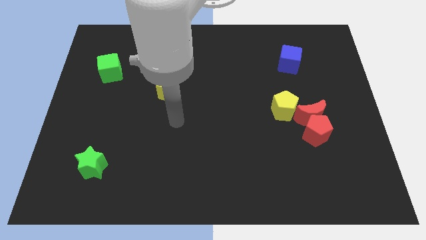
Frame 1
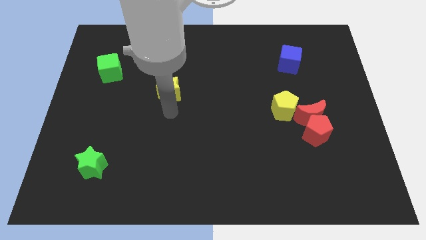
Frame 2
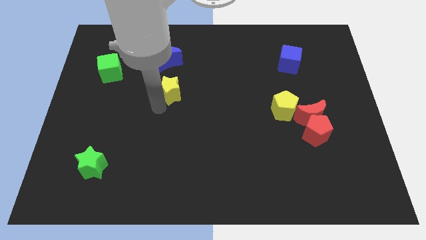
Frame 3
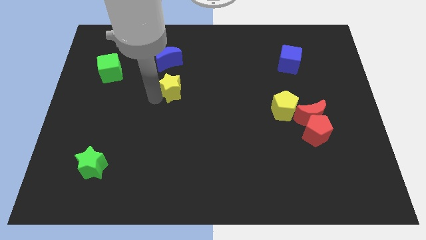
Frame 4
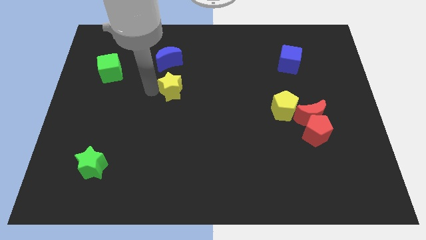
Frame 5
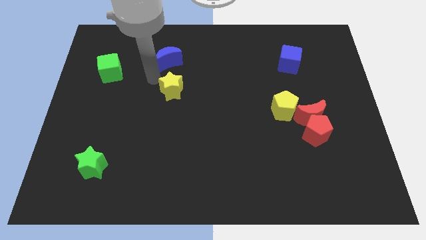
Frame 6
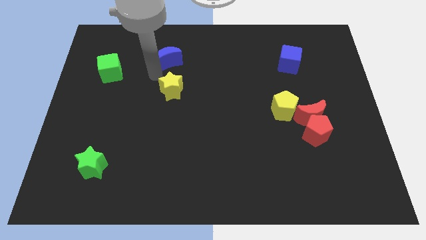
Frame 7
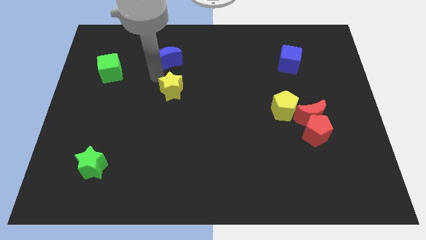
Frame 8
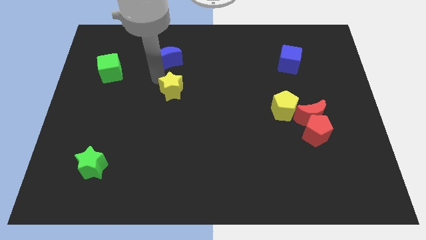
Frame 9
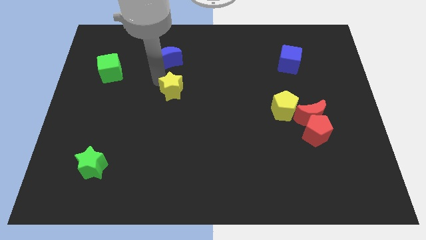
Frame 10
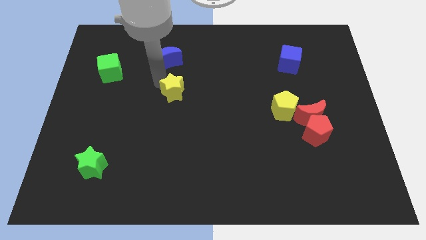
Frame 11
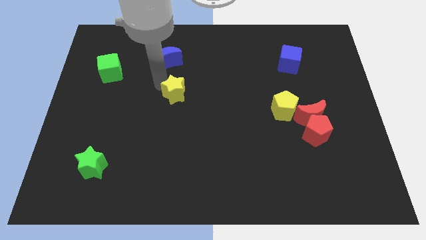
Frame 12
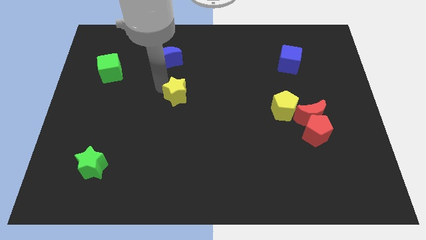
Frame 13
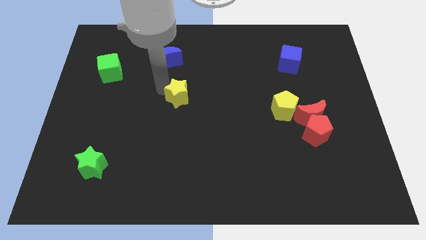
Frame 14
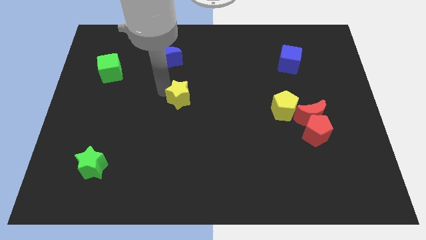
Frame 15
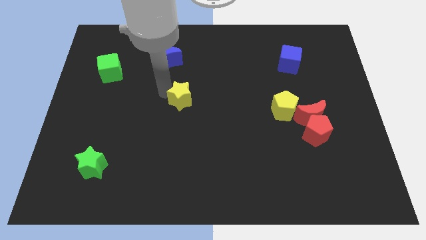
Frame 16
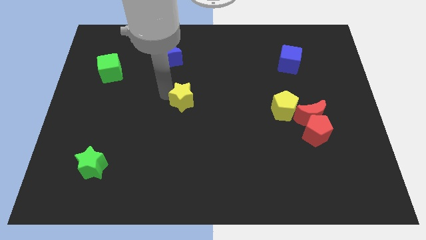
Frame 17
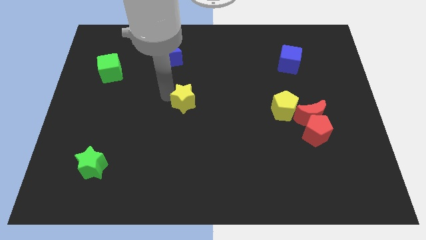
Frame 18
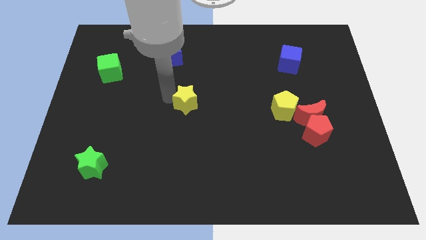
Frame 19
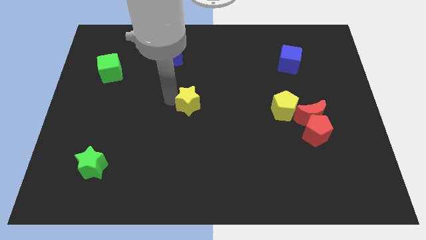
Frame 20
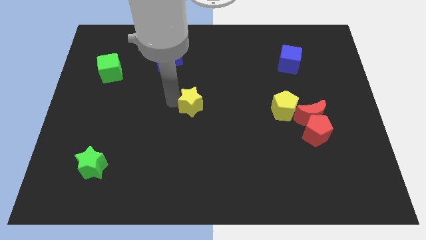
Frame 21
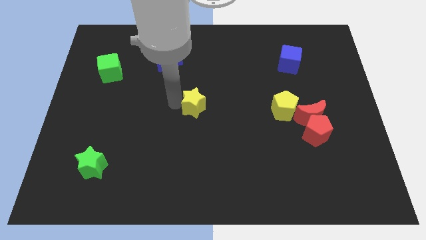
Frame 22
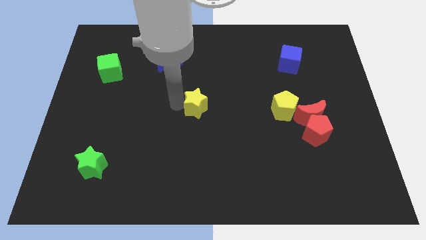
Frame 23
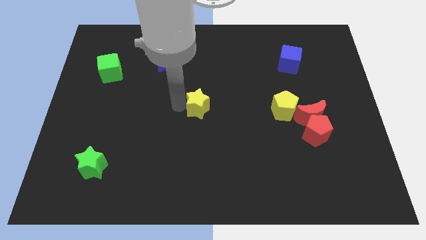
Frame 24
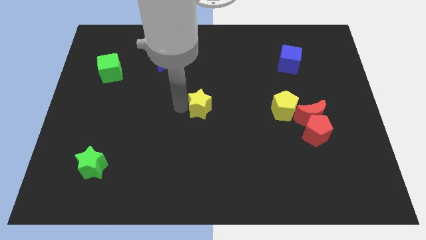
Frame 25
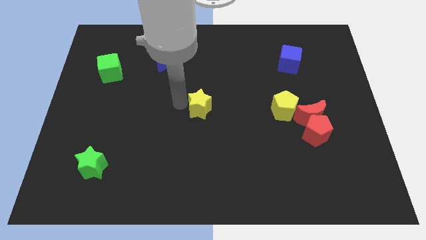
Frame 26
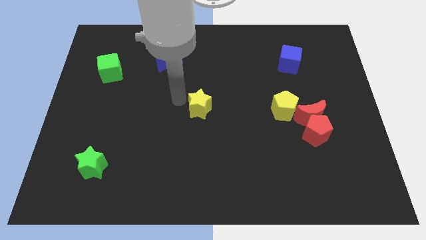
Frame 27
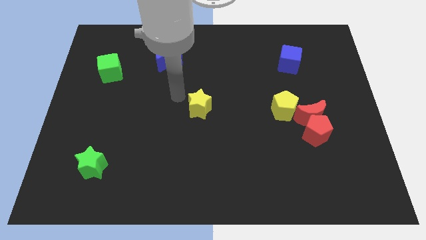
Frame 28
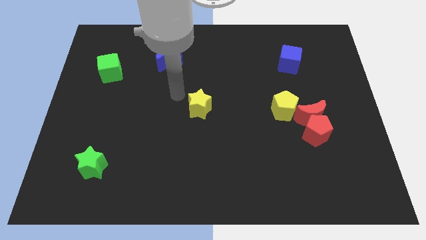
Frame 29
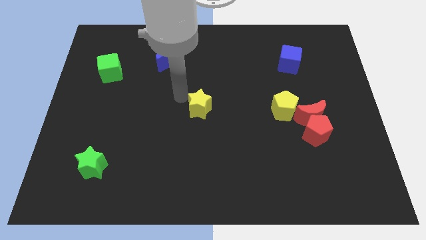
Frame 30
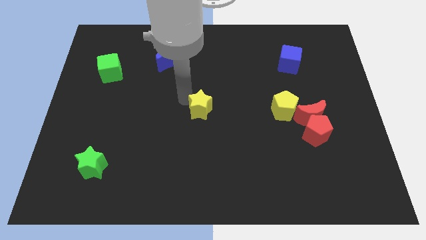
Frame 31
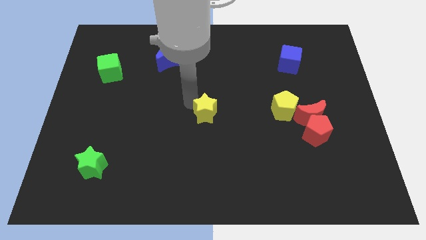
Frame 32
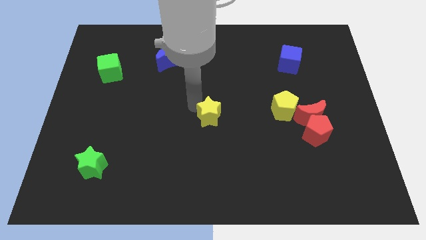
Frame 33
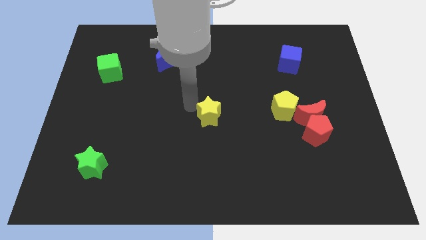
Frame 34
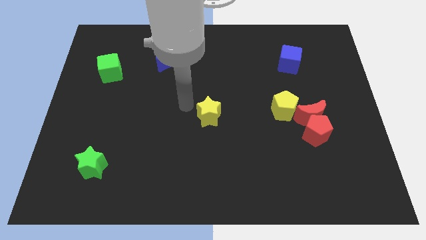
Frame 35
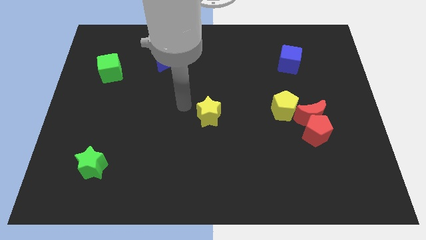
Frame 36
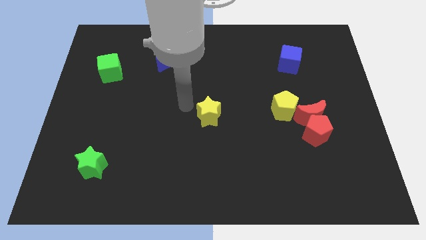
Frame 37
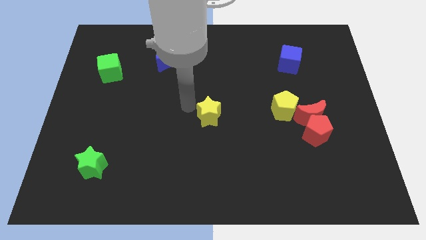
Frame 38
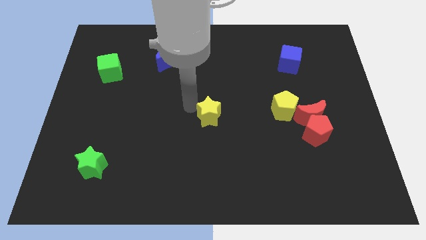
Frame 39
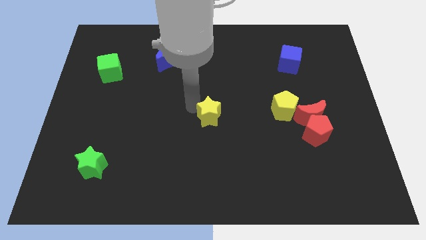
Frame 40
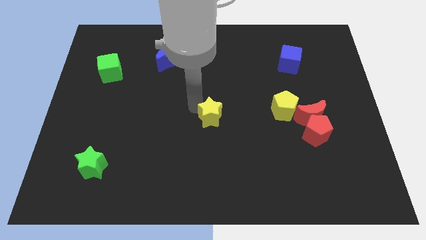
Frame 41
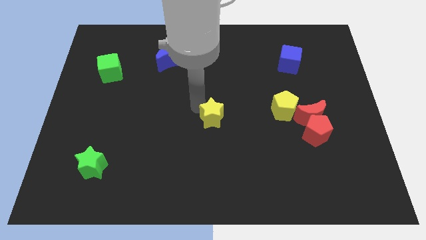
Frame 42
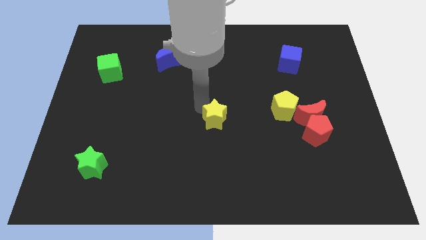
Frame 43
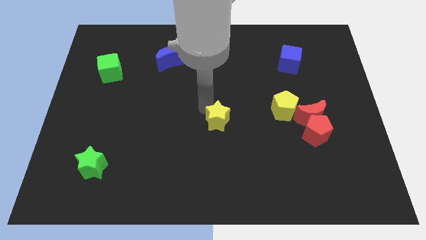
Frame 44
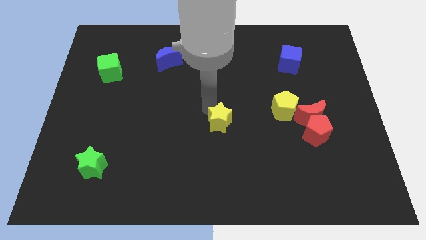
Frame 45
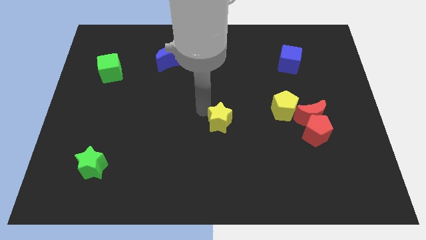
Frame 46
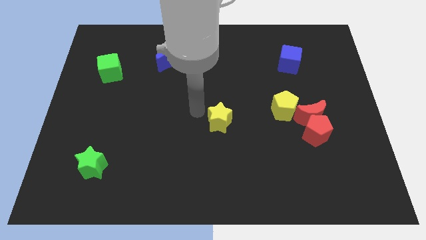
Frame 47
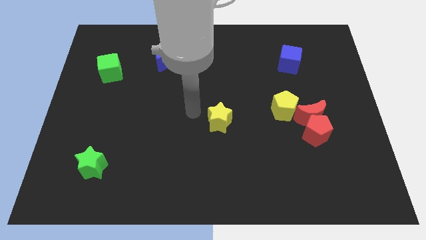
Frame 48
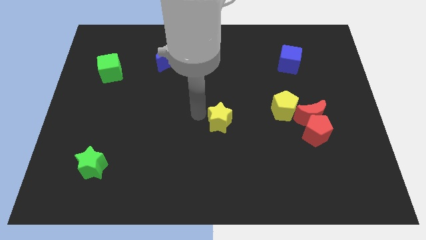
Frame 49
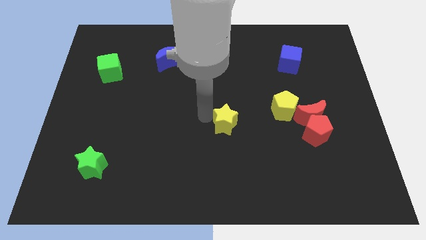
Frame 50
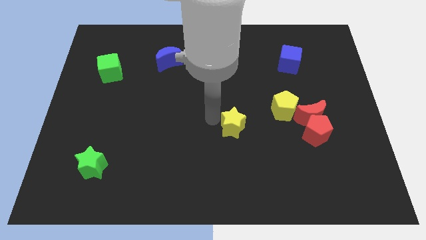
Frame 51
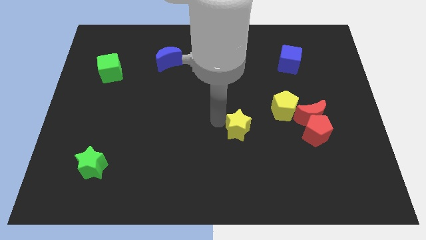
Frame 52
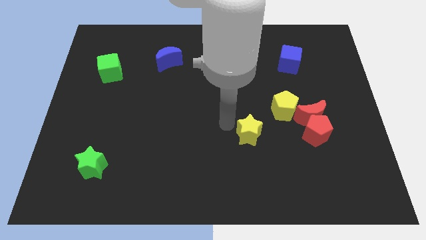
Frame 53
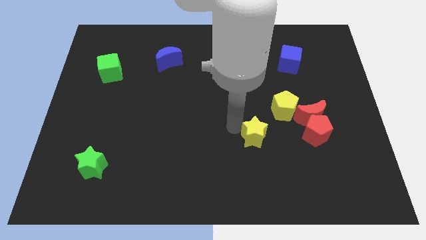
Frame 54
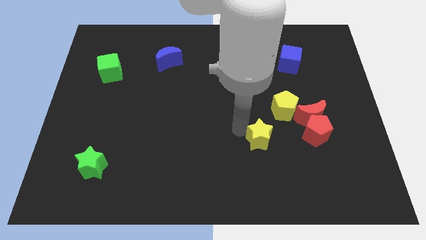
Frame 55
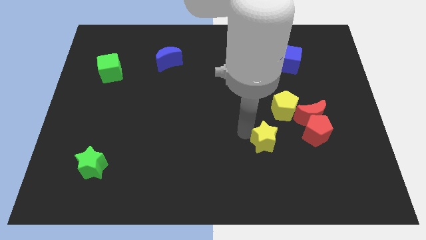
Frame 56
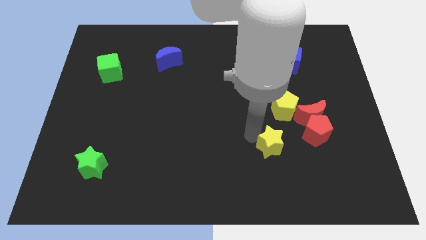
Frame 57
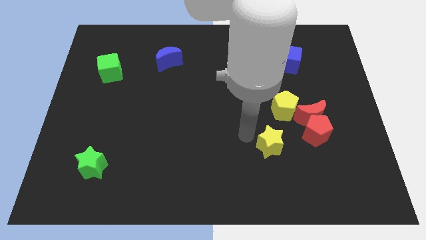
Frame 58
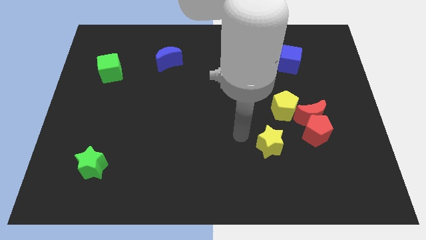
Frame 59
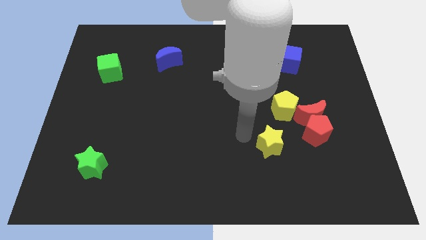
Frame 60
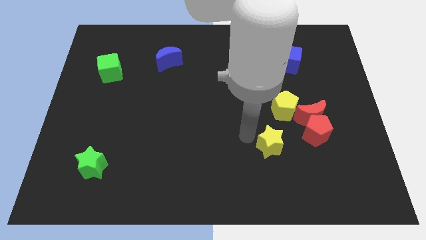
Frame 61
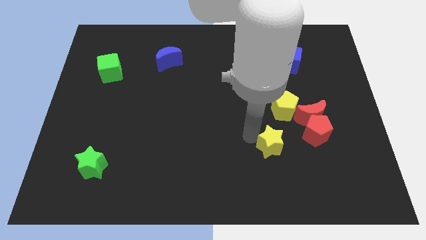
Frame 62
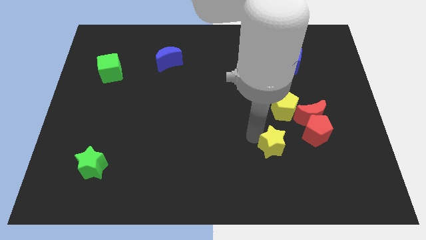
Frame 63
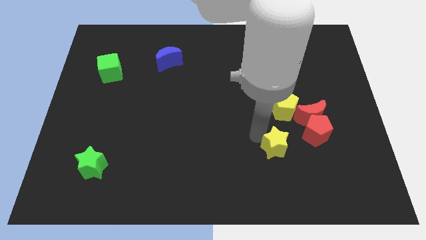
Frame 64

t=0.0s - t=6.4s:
slide the yellow star to the bottom left side of the red pentagon

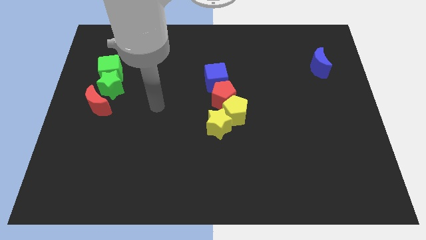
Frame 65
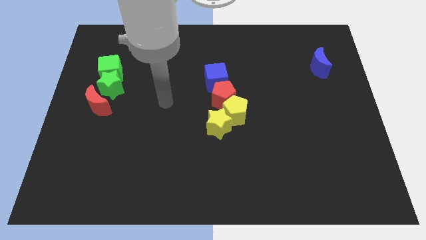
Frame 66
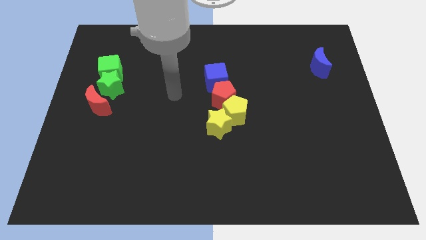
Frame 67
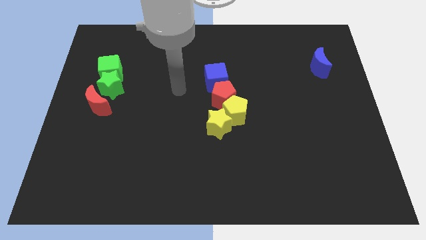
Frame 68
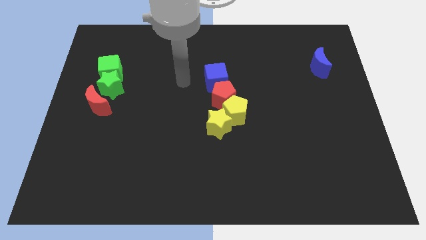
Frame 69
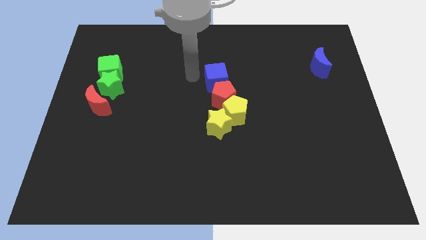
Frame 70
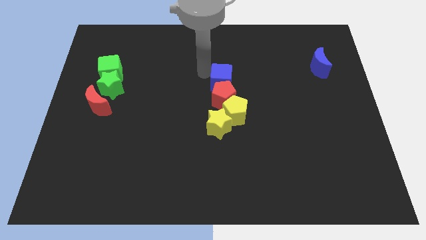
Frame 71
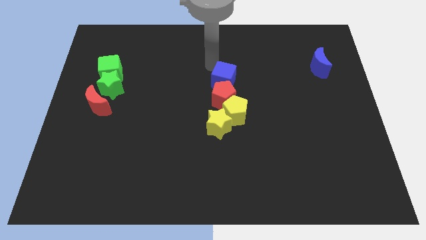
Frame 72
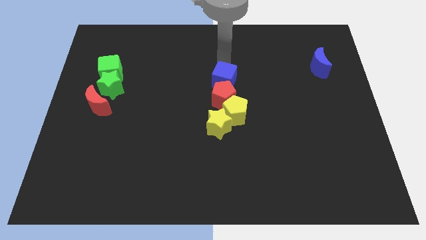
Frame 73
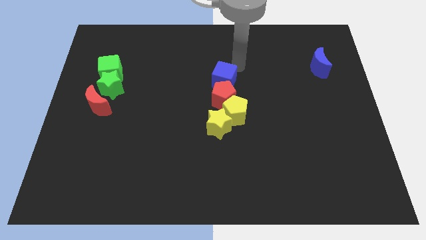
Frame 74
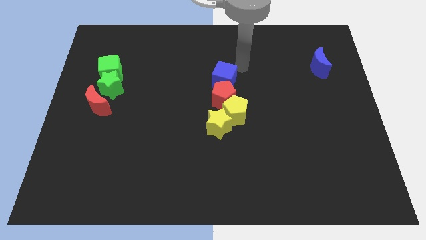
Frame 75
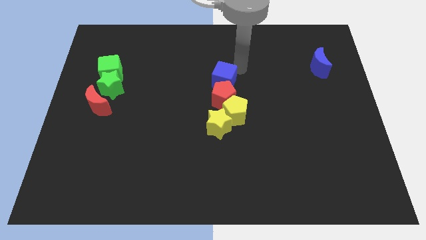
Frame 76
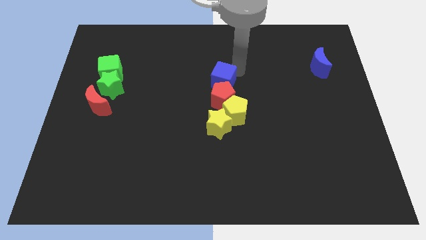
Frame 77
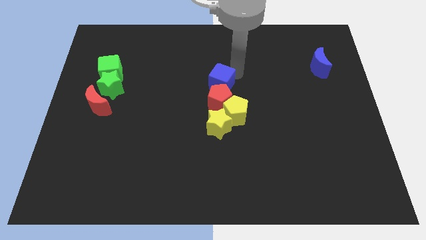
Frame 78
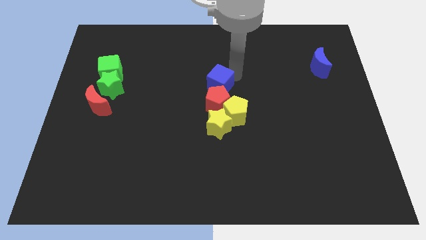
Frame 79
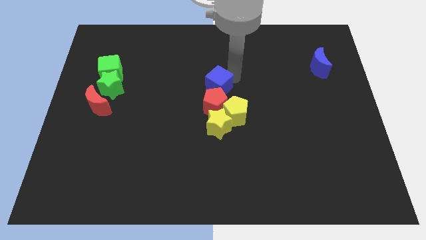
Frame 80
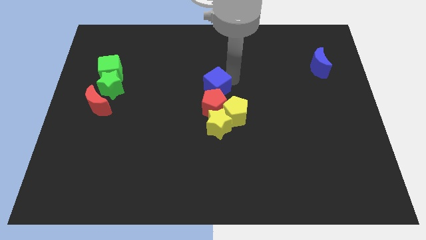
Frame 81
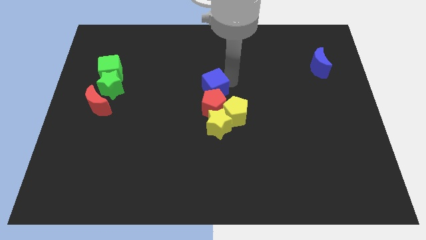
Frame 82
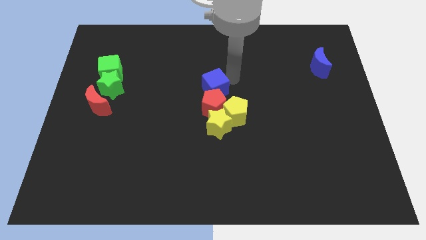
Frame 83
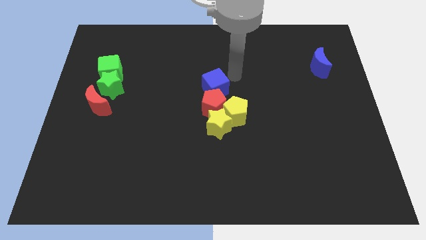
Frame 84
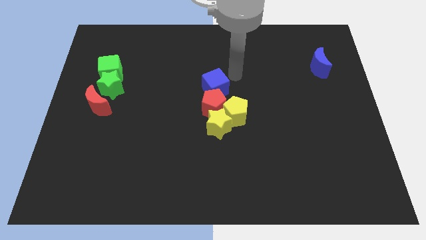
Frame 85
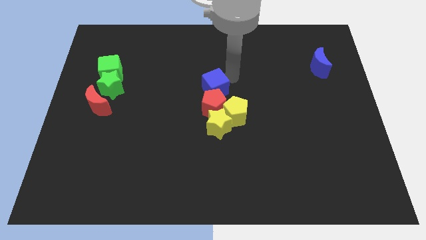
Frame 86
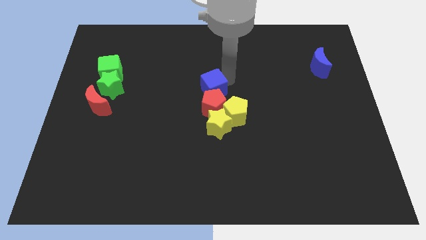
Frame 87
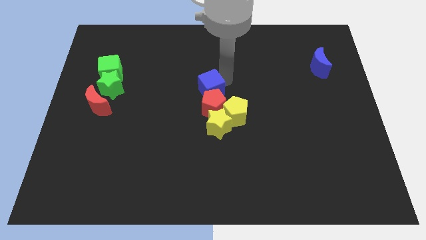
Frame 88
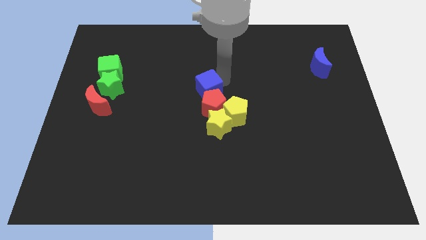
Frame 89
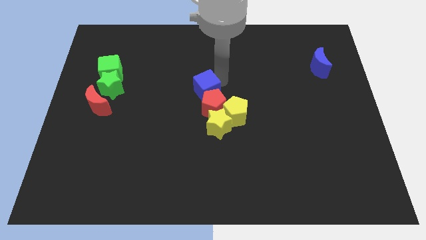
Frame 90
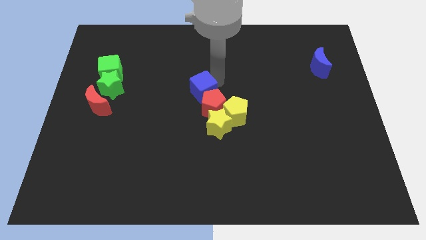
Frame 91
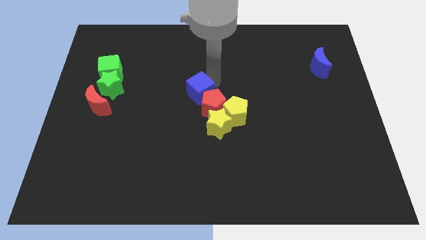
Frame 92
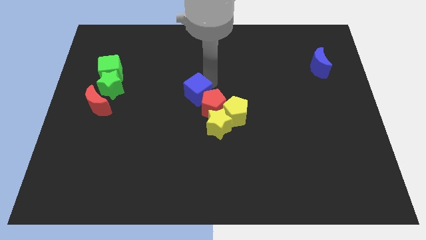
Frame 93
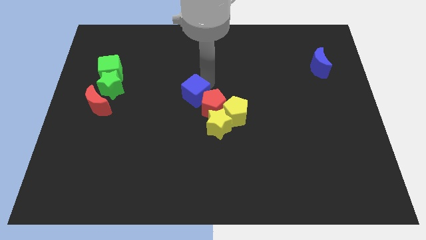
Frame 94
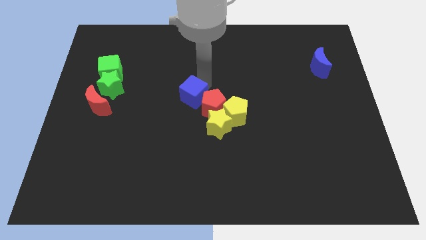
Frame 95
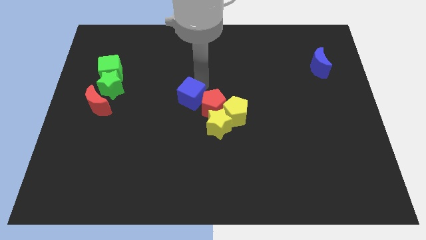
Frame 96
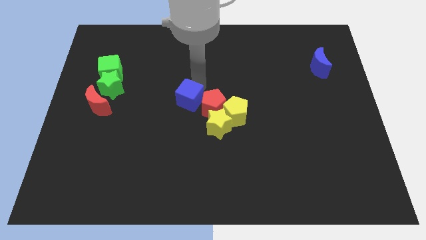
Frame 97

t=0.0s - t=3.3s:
push the blue cube left of the yellow pentagon
